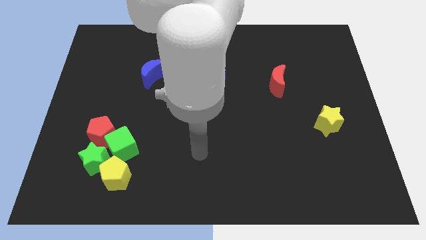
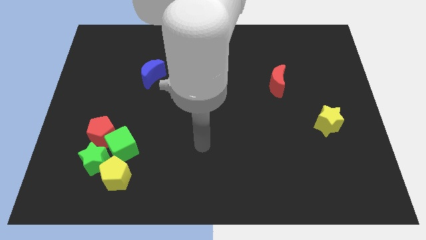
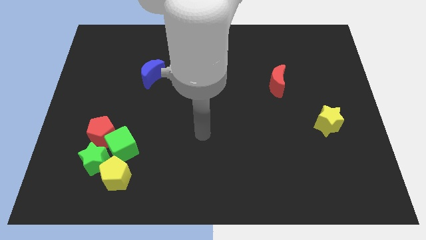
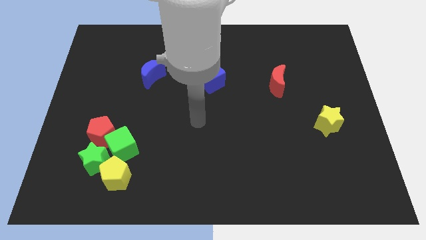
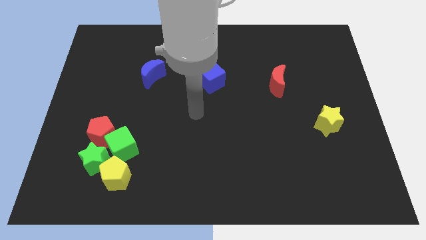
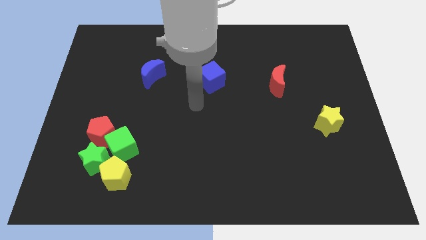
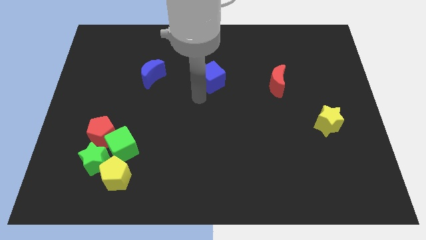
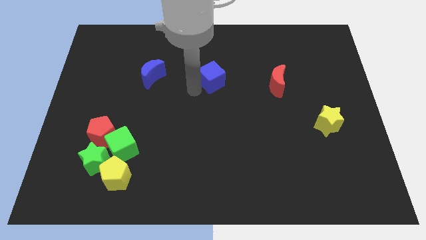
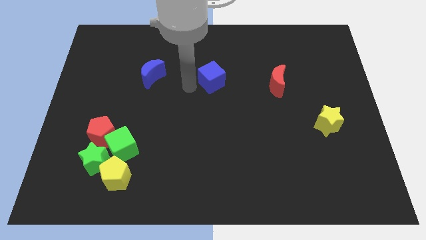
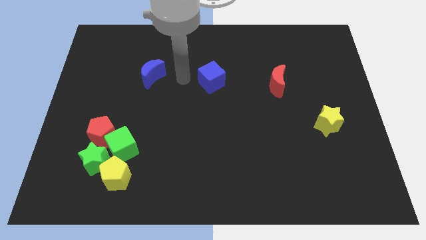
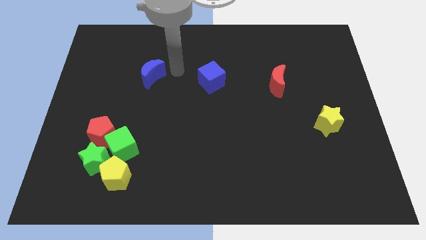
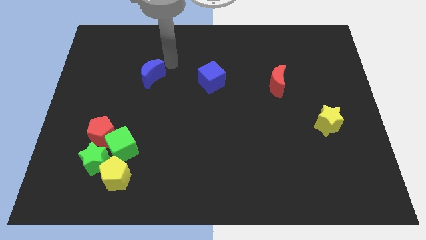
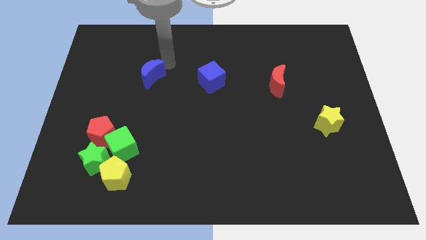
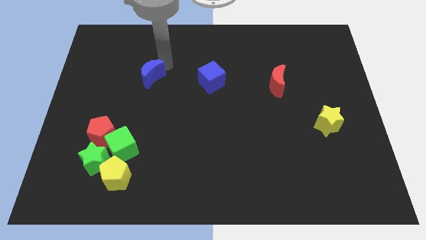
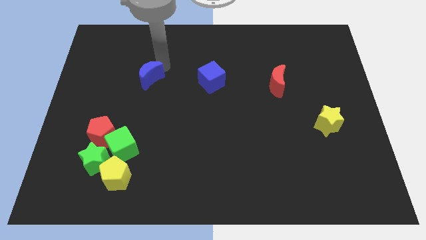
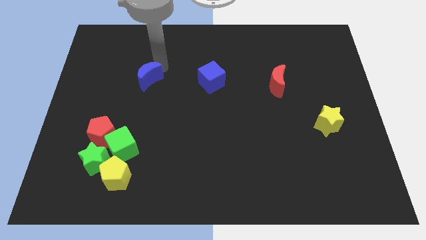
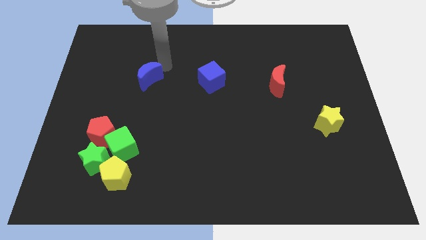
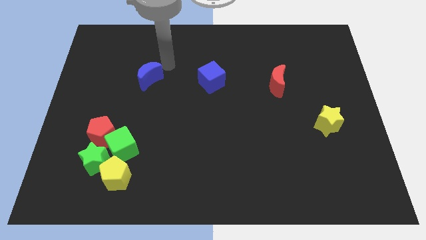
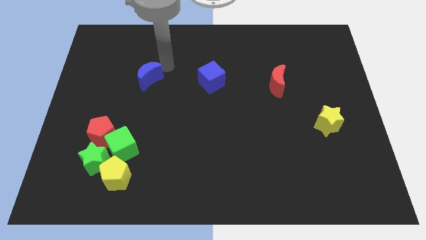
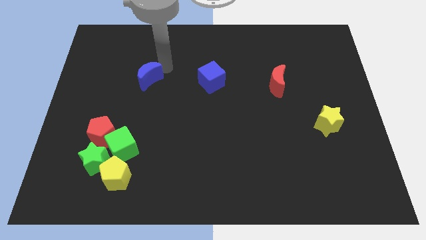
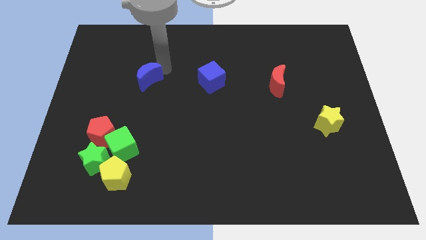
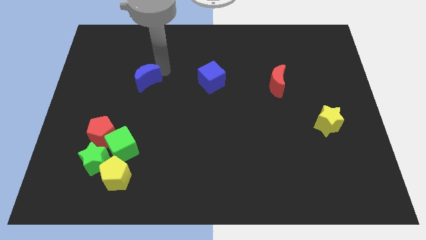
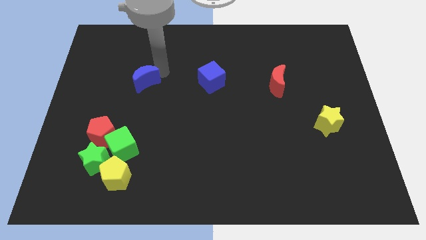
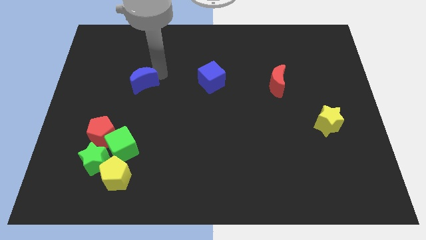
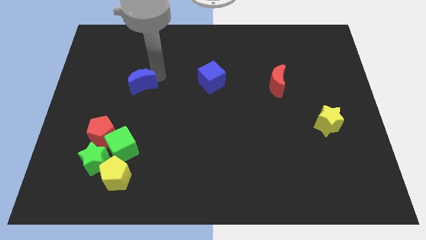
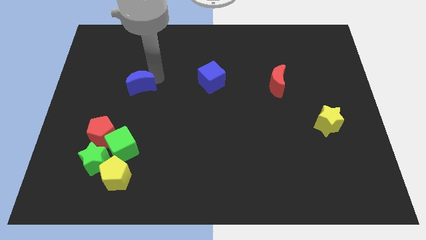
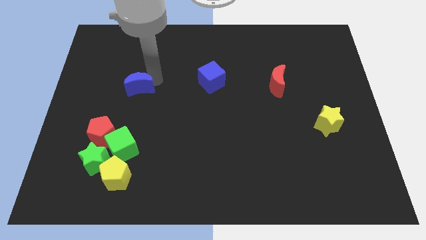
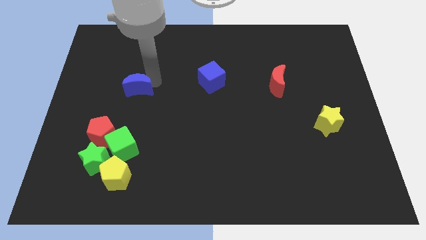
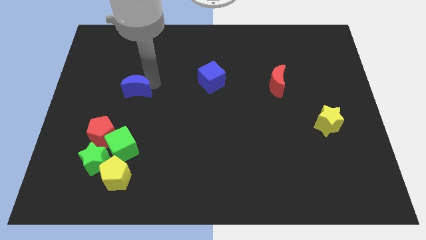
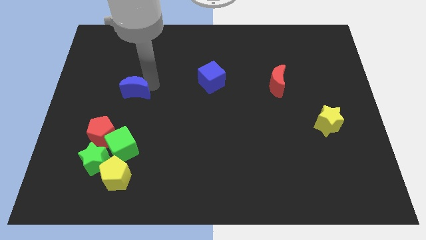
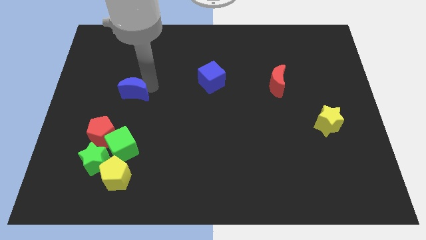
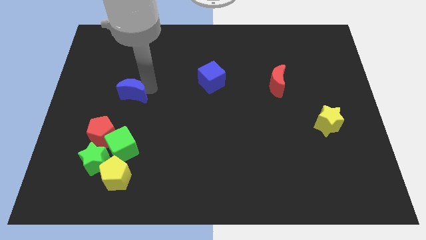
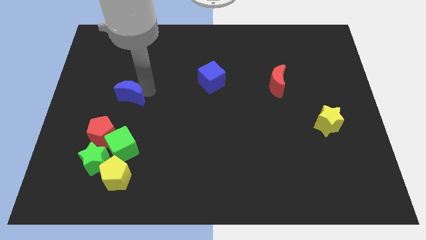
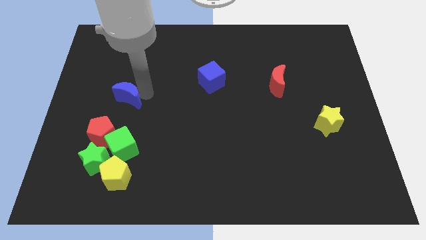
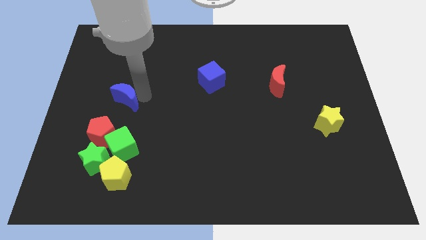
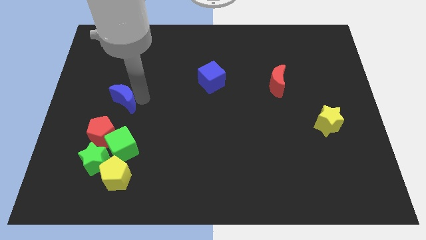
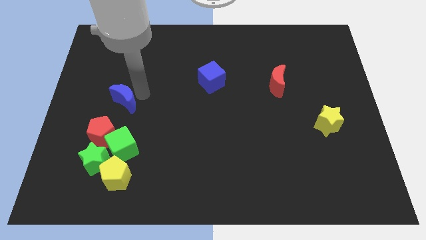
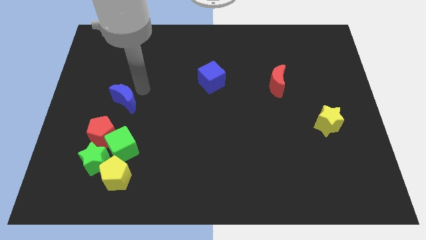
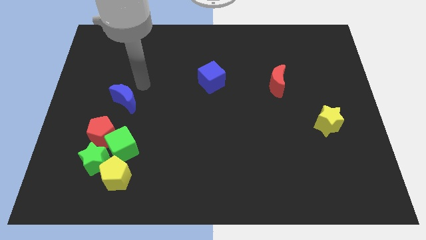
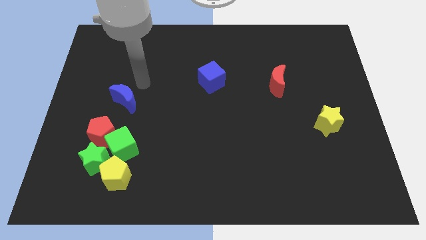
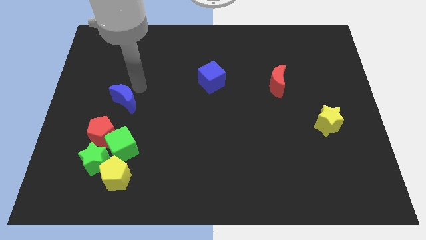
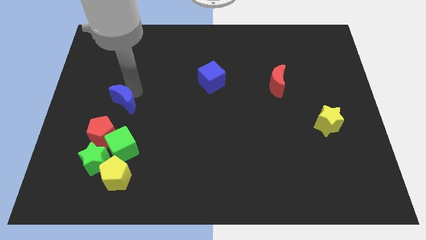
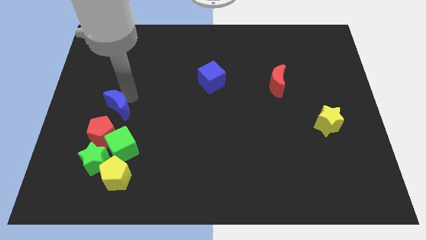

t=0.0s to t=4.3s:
move the blue moon to the top side of the green star

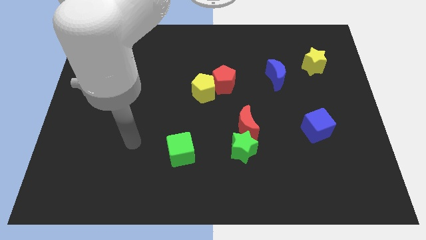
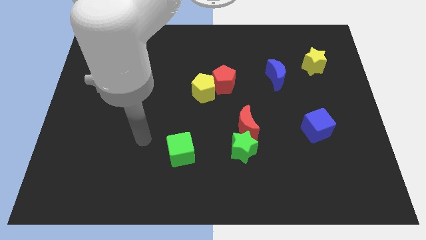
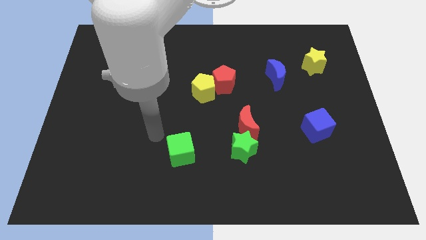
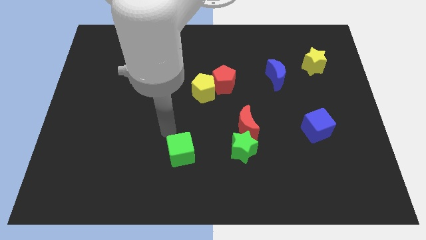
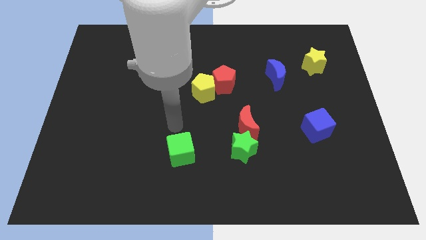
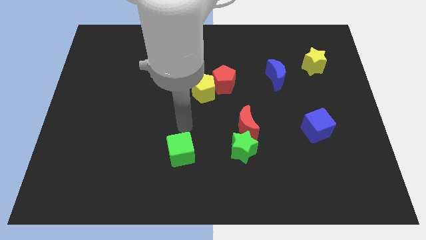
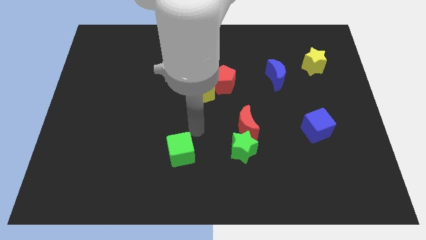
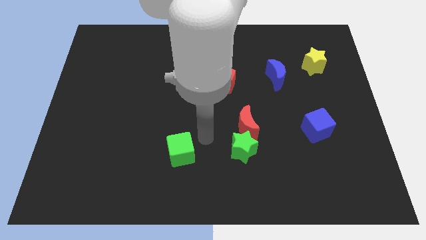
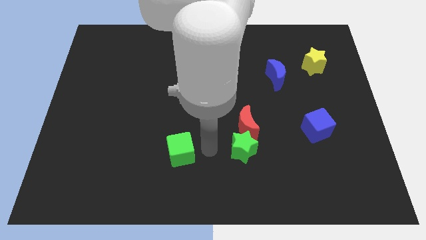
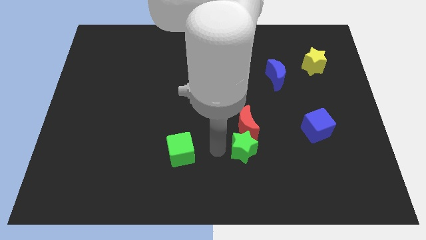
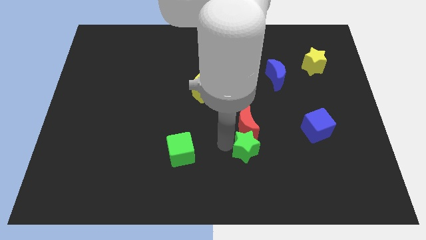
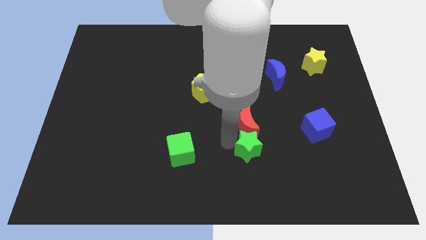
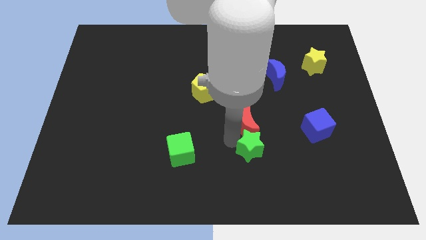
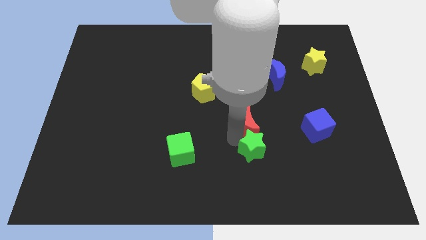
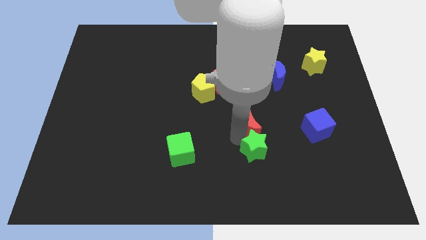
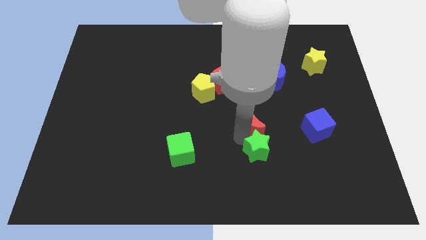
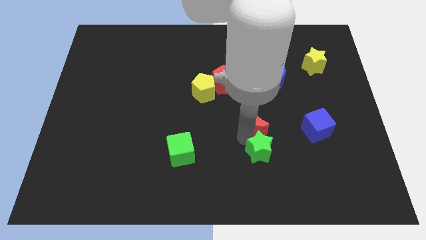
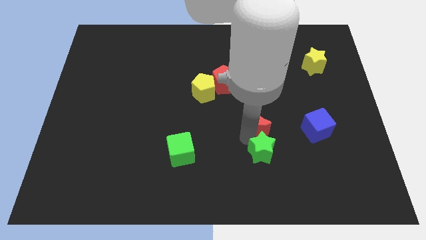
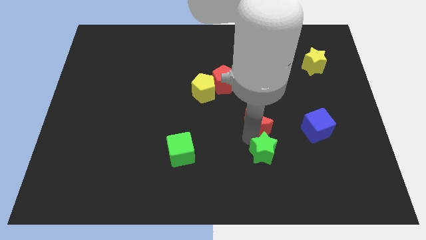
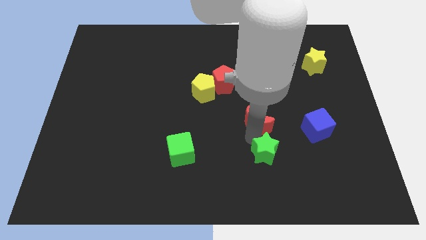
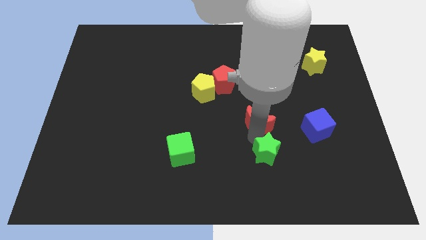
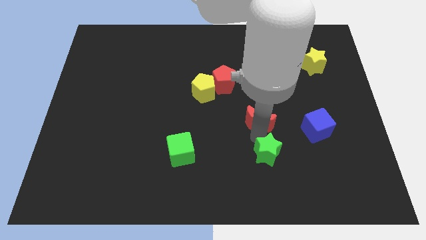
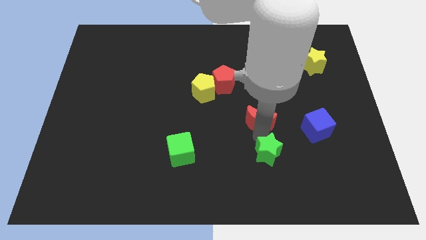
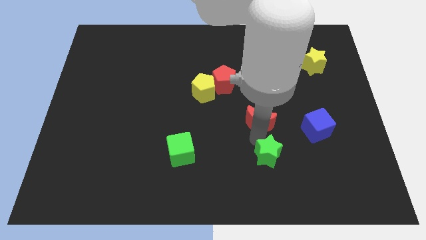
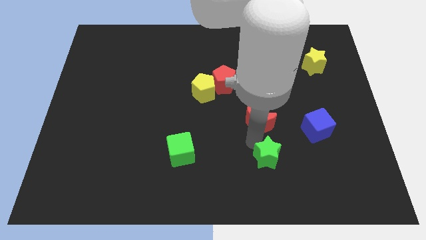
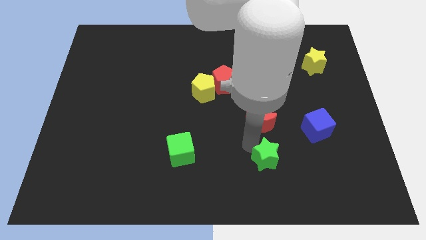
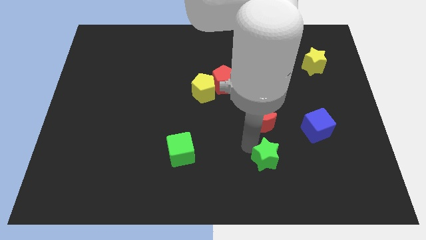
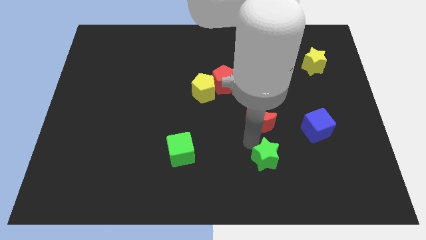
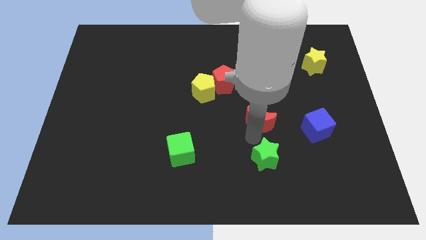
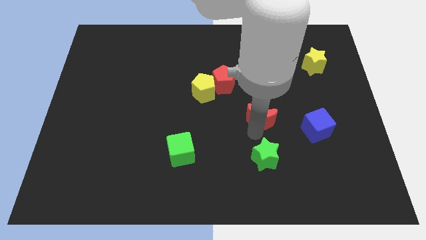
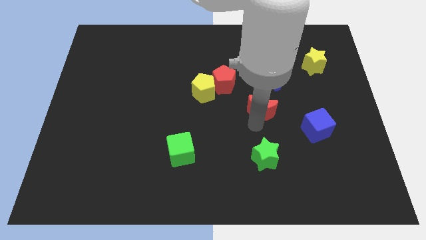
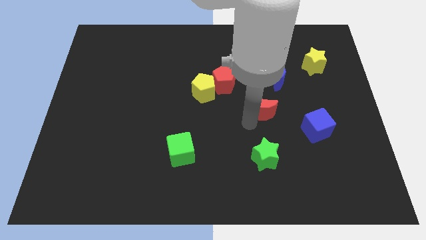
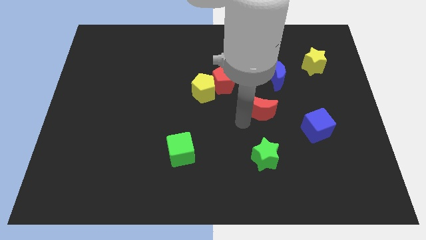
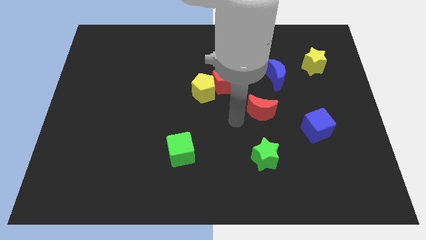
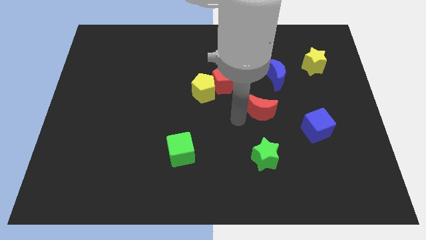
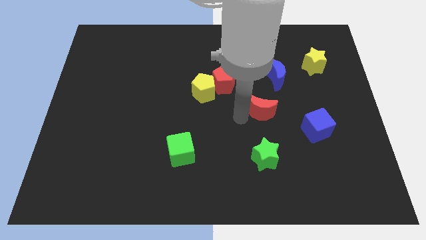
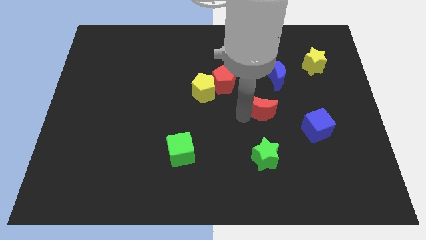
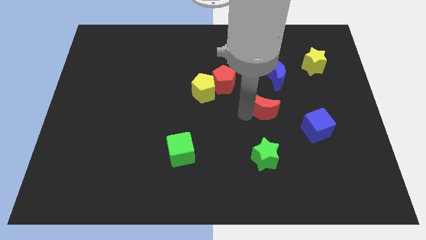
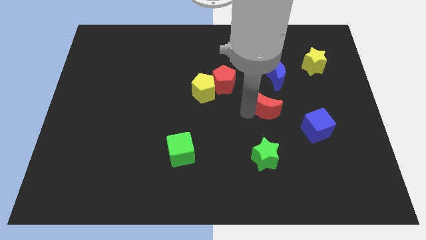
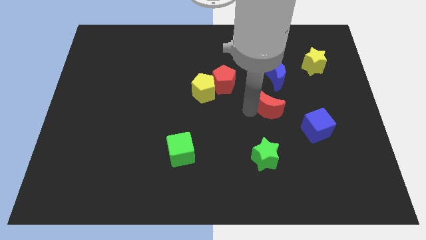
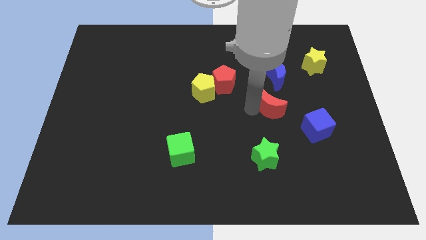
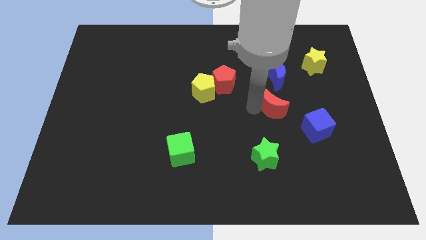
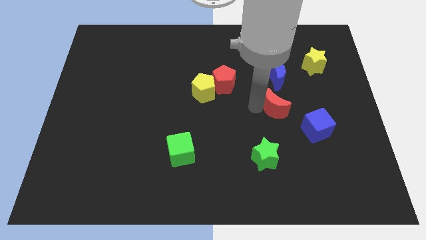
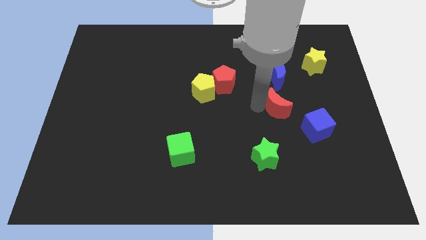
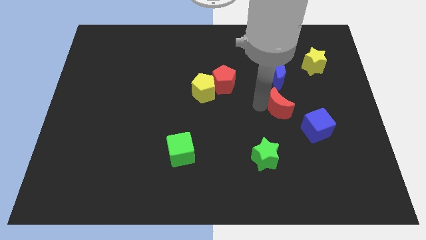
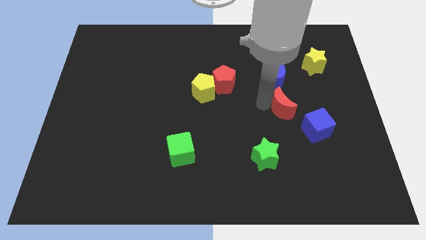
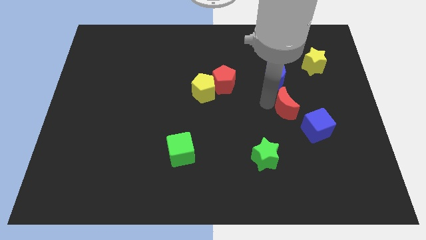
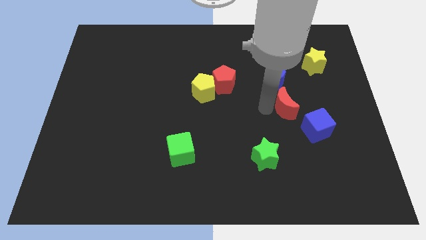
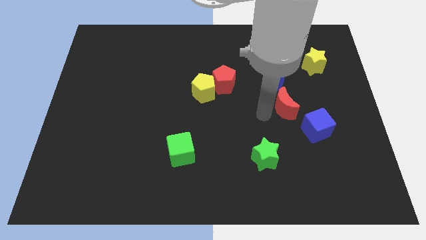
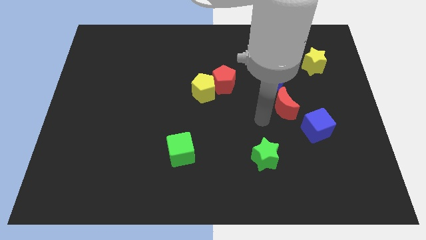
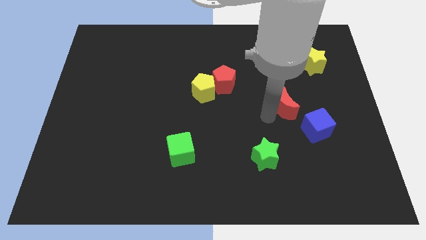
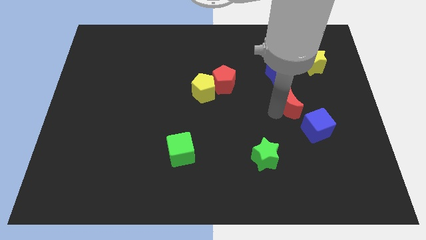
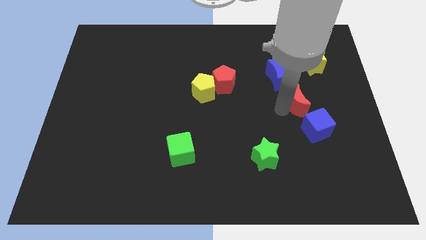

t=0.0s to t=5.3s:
move the red moon above the blue cube
